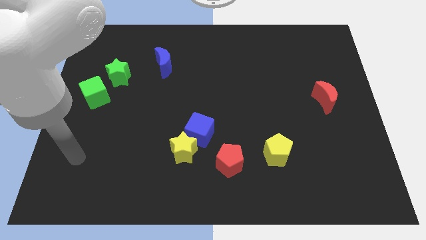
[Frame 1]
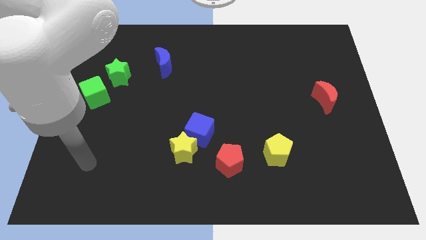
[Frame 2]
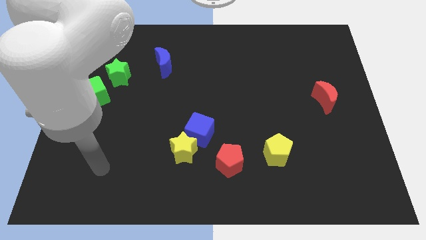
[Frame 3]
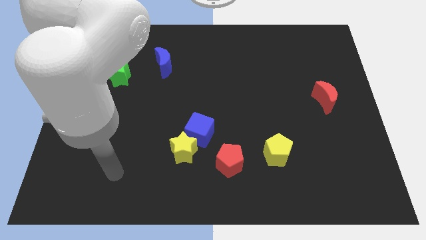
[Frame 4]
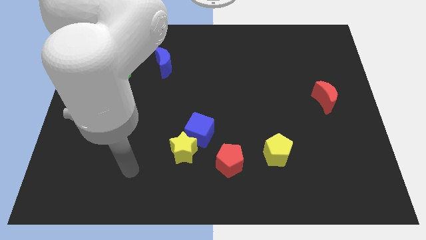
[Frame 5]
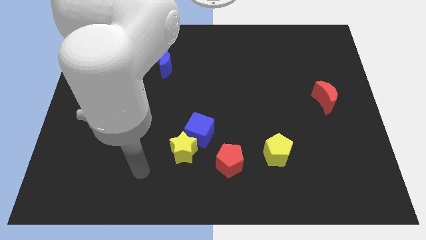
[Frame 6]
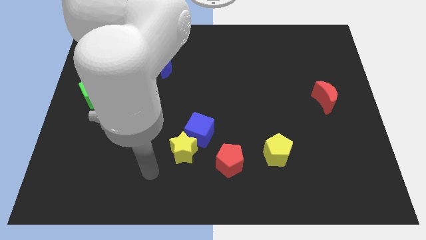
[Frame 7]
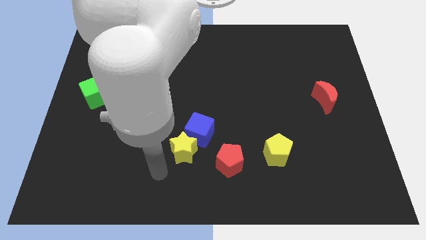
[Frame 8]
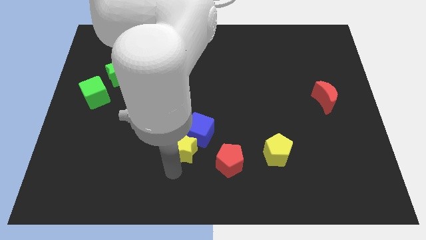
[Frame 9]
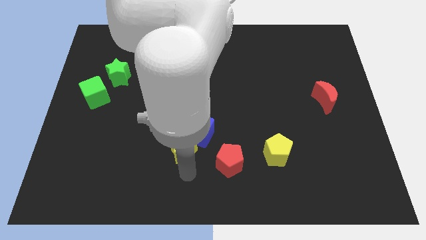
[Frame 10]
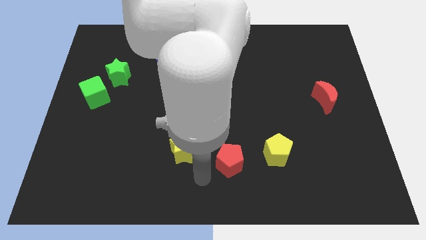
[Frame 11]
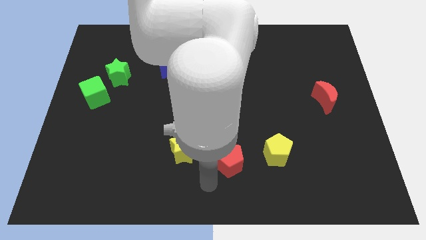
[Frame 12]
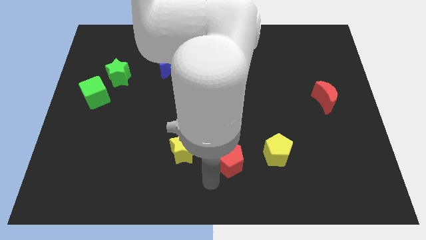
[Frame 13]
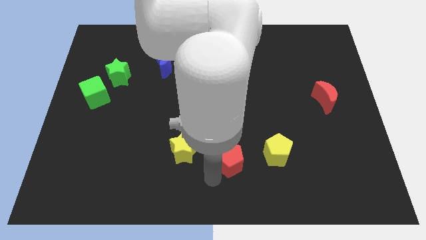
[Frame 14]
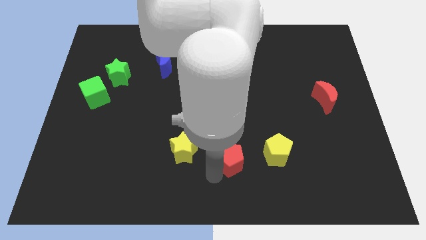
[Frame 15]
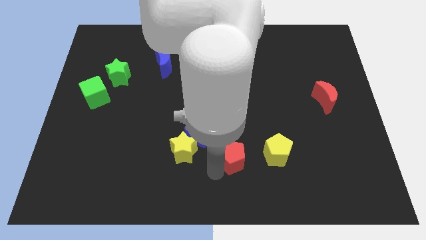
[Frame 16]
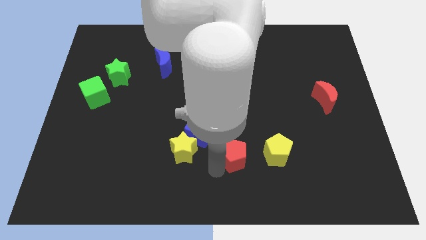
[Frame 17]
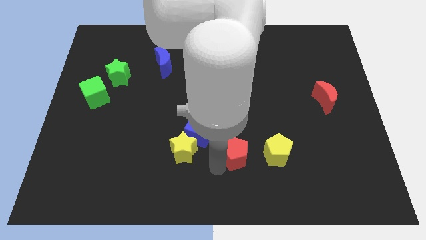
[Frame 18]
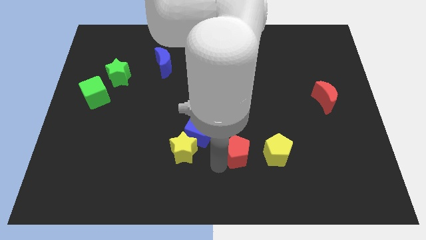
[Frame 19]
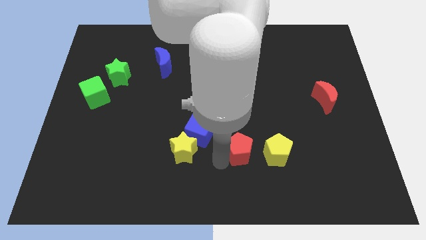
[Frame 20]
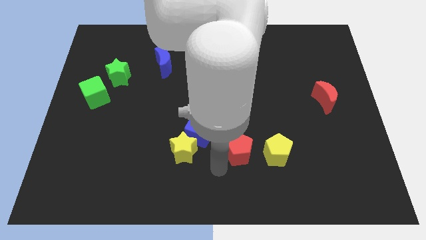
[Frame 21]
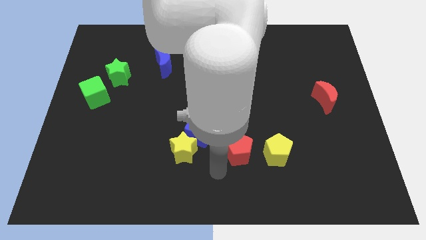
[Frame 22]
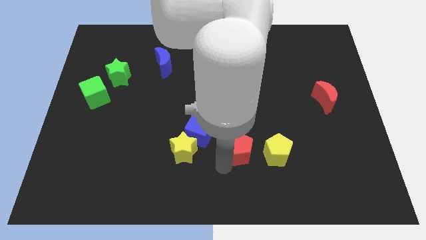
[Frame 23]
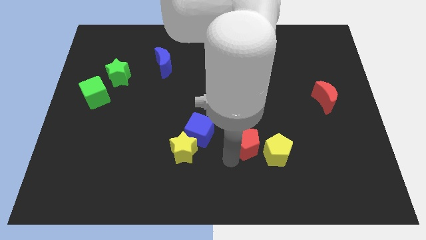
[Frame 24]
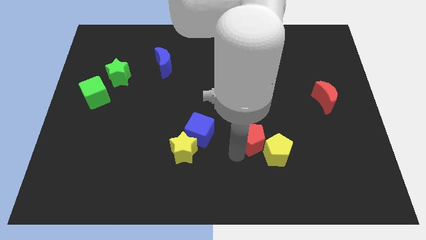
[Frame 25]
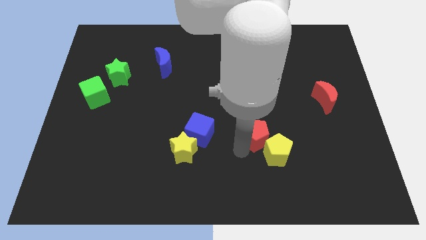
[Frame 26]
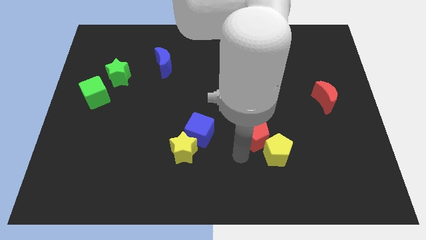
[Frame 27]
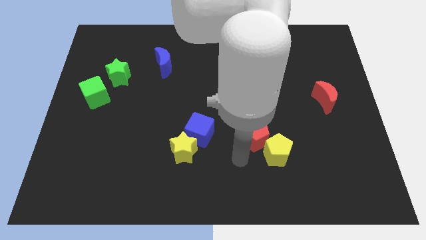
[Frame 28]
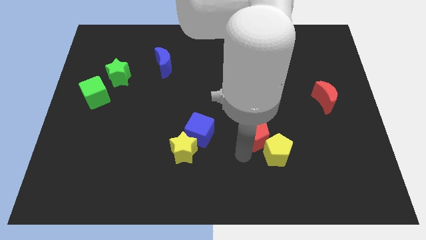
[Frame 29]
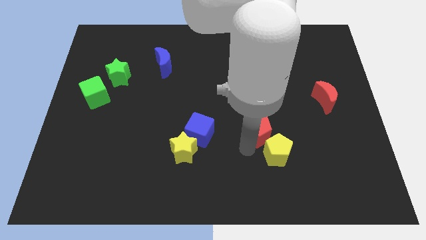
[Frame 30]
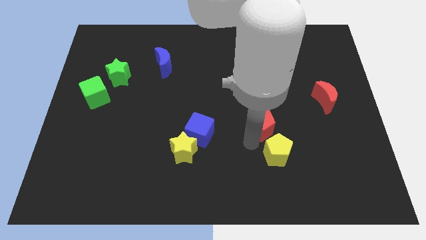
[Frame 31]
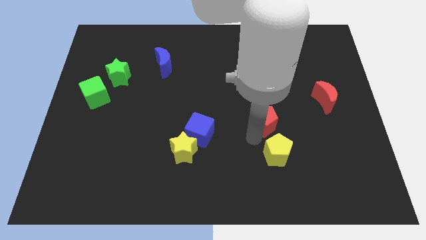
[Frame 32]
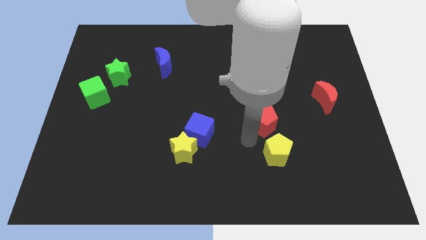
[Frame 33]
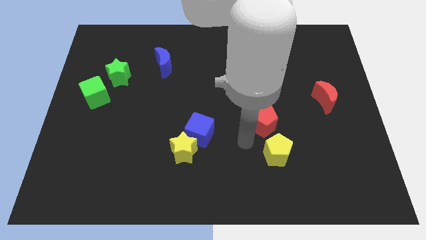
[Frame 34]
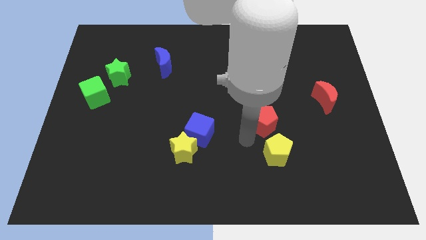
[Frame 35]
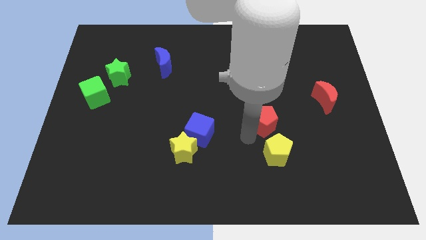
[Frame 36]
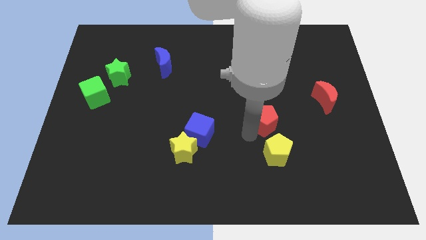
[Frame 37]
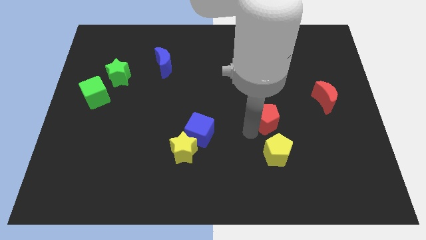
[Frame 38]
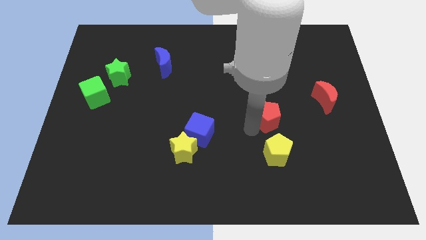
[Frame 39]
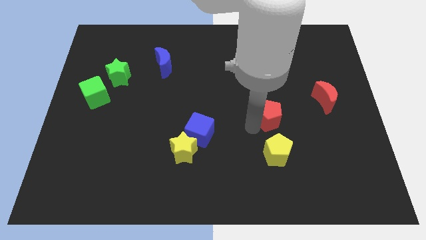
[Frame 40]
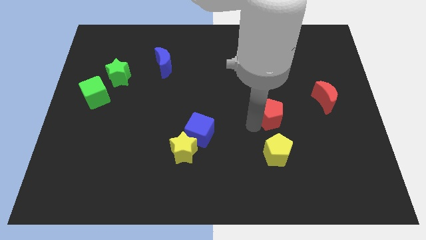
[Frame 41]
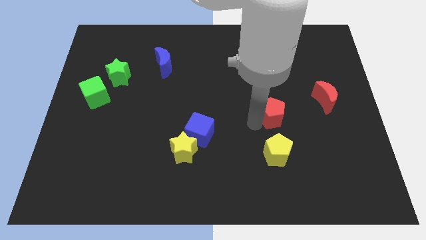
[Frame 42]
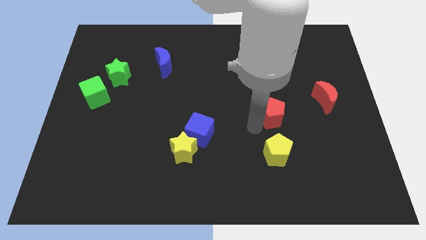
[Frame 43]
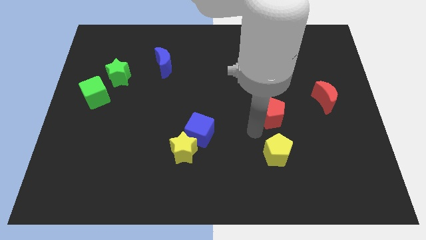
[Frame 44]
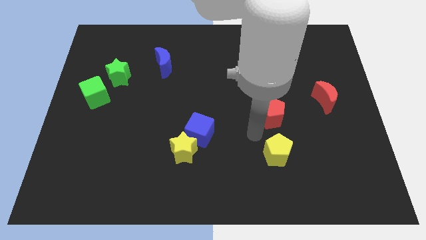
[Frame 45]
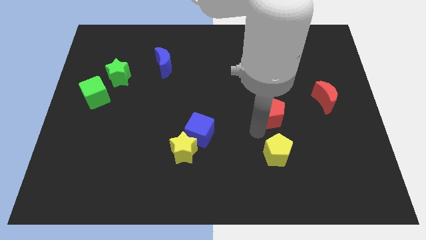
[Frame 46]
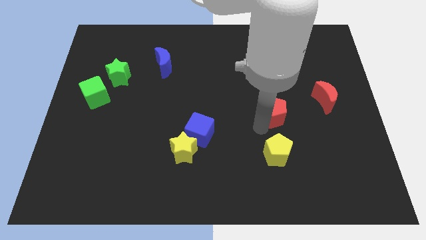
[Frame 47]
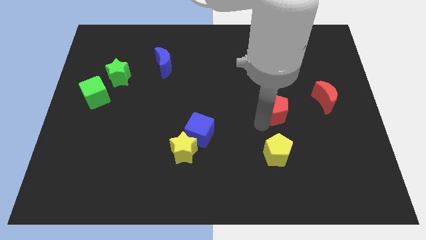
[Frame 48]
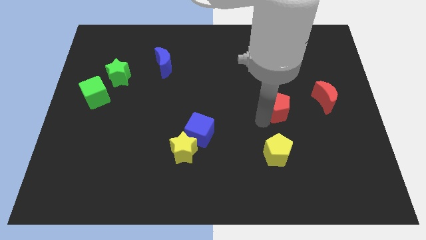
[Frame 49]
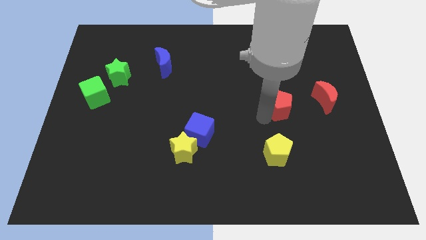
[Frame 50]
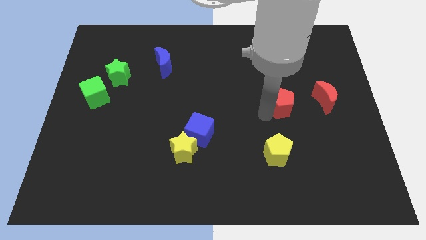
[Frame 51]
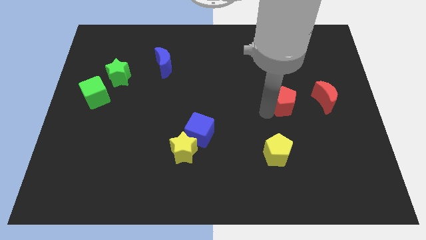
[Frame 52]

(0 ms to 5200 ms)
push the red pentagon upwards and to the right

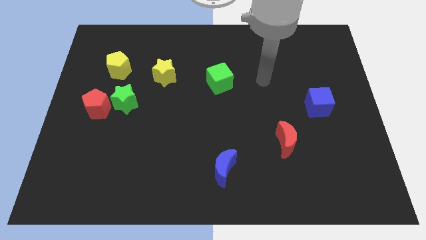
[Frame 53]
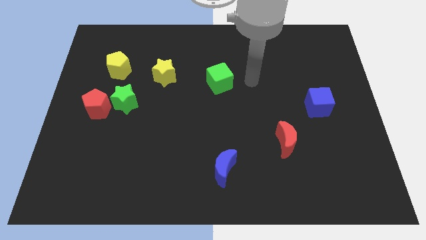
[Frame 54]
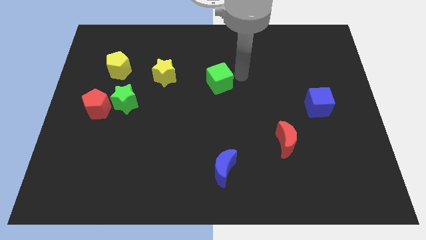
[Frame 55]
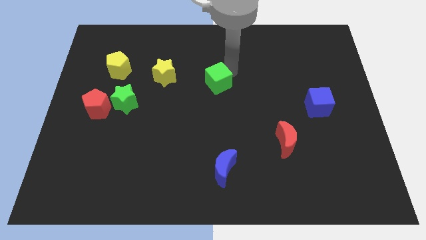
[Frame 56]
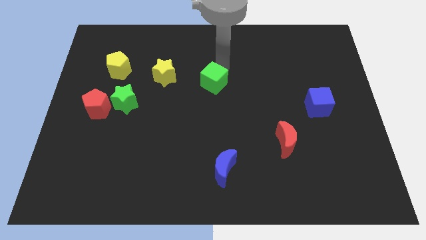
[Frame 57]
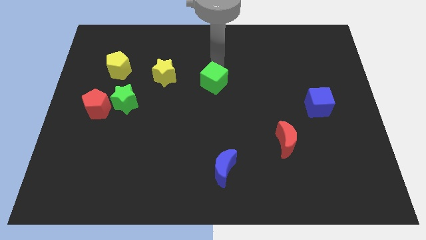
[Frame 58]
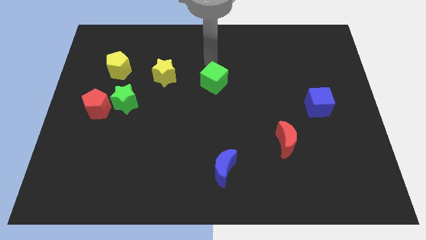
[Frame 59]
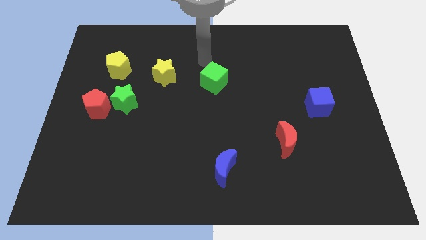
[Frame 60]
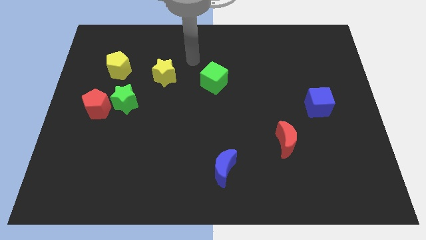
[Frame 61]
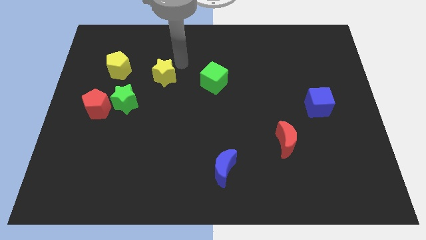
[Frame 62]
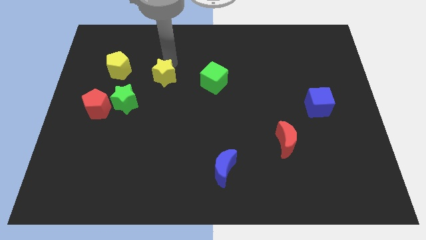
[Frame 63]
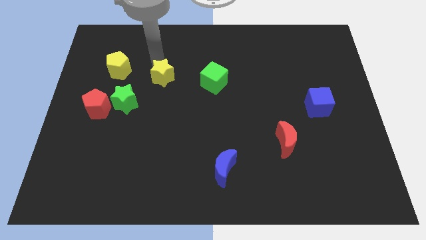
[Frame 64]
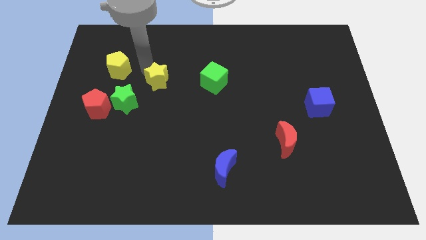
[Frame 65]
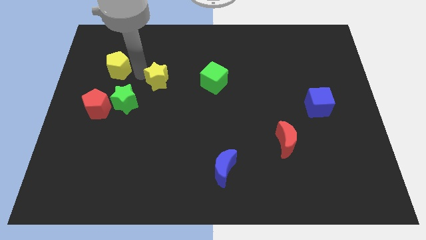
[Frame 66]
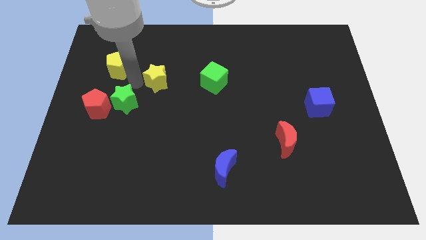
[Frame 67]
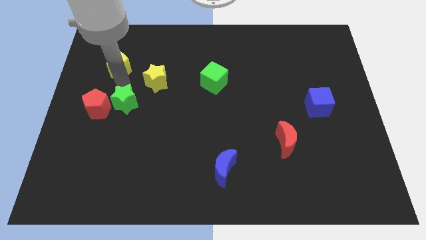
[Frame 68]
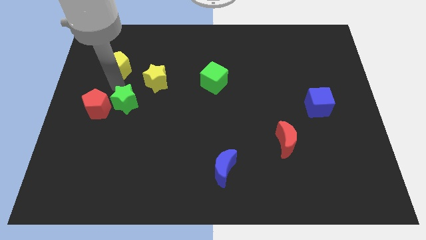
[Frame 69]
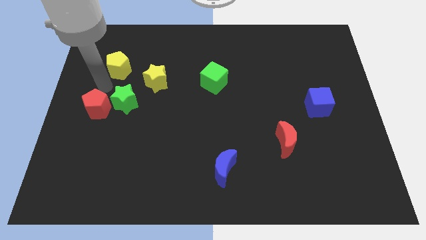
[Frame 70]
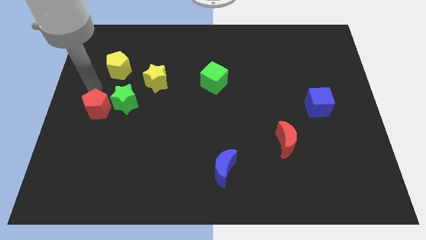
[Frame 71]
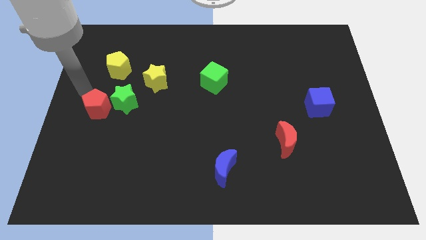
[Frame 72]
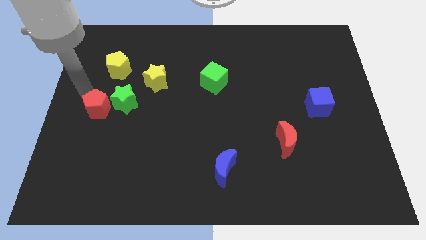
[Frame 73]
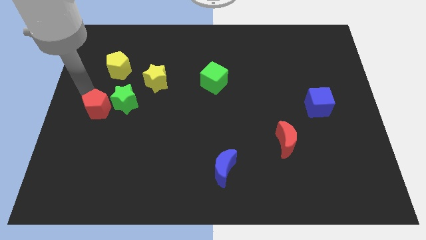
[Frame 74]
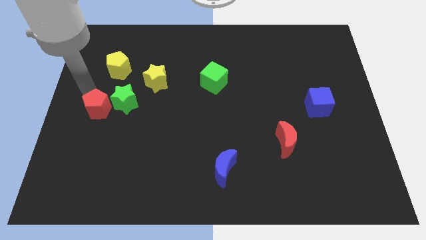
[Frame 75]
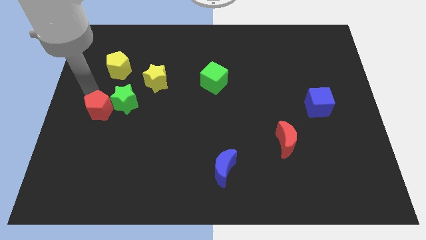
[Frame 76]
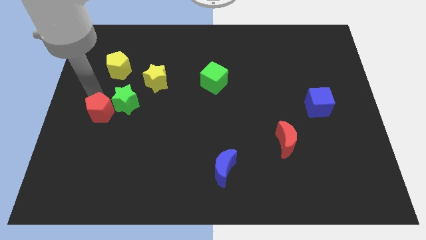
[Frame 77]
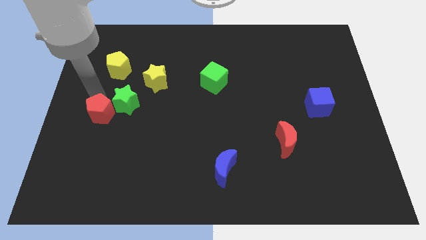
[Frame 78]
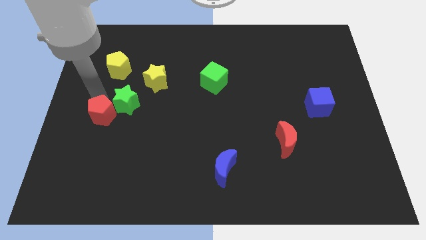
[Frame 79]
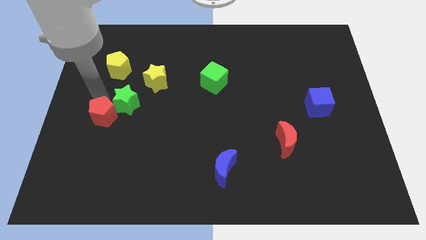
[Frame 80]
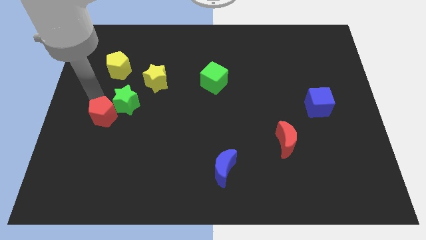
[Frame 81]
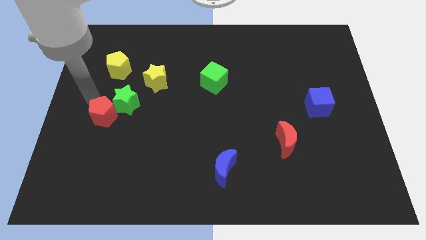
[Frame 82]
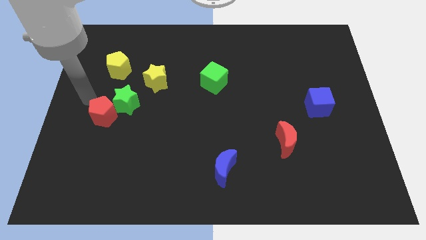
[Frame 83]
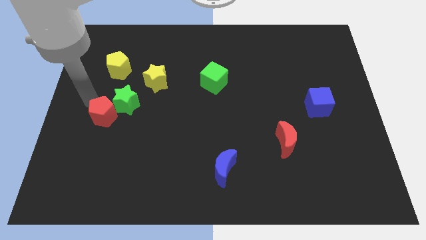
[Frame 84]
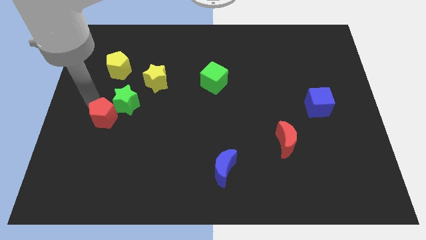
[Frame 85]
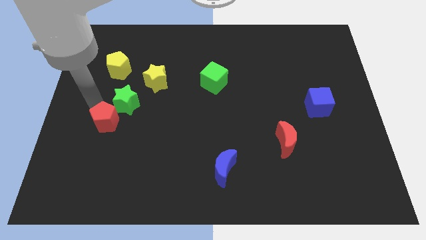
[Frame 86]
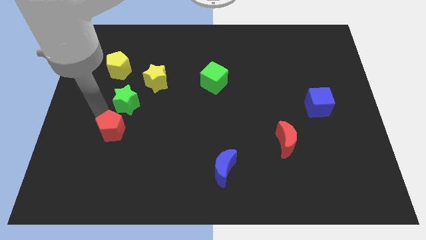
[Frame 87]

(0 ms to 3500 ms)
slide the red pentagon slightly downwards and to the right diagonally
